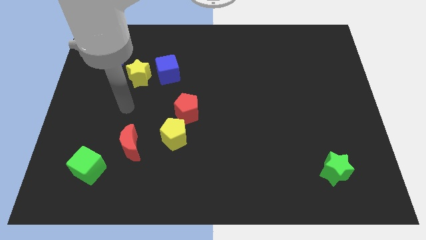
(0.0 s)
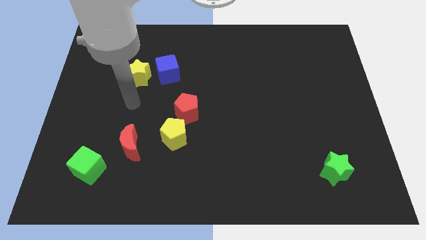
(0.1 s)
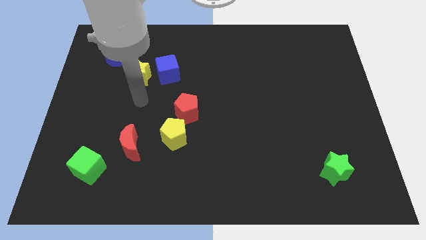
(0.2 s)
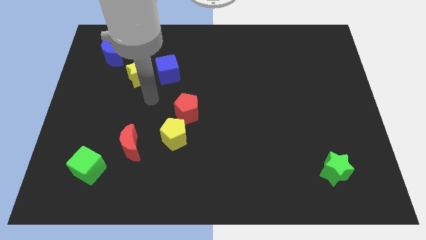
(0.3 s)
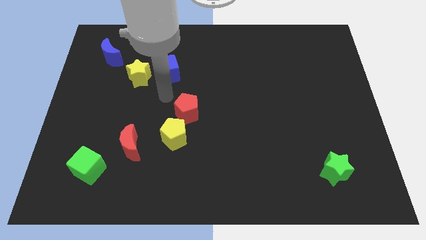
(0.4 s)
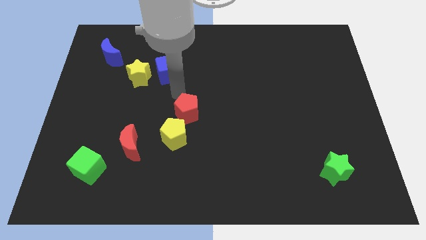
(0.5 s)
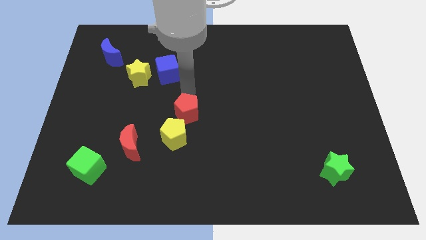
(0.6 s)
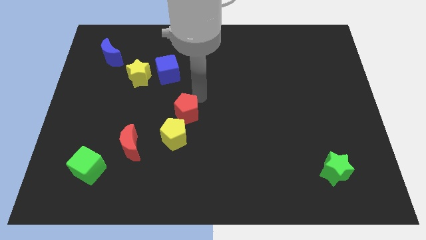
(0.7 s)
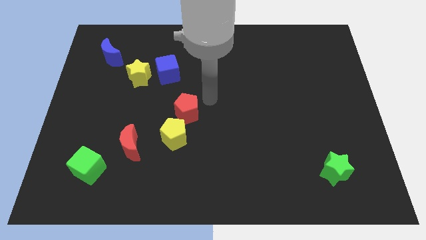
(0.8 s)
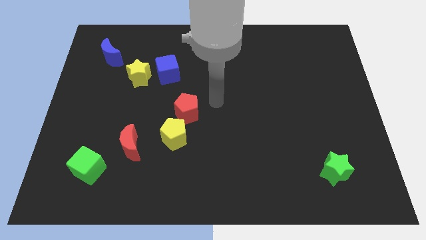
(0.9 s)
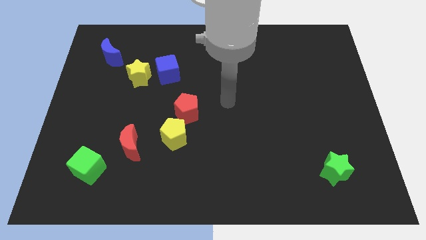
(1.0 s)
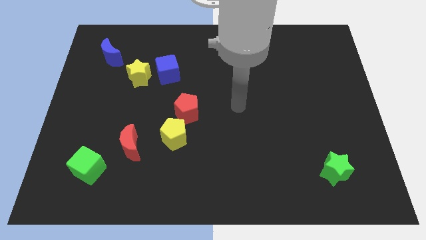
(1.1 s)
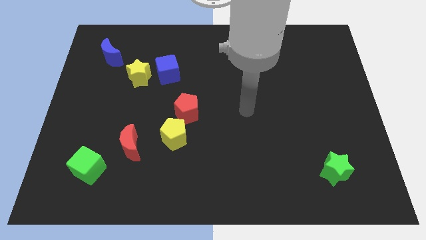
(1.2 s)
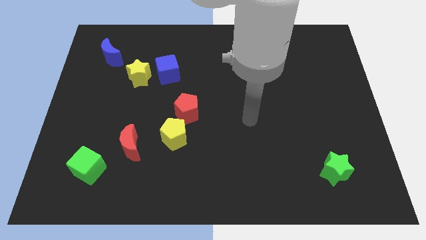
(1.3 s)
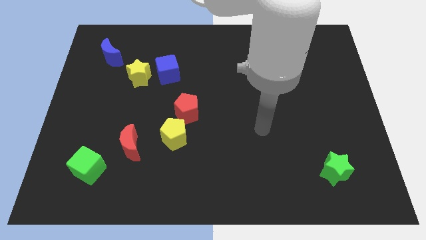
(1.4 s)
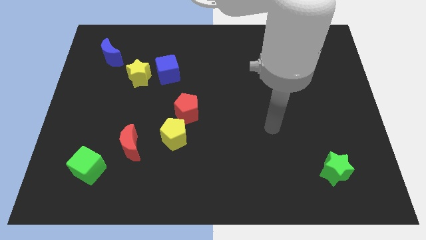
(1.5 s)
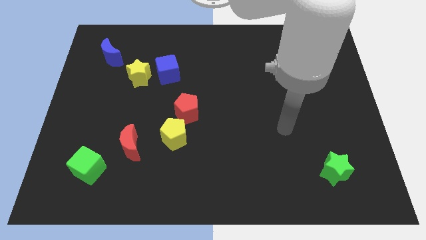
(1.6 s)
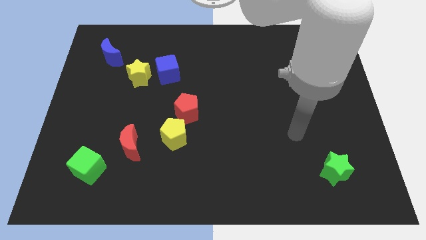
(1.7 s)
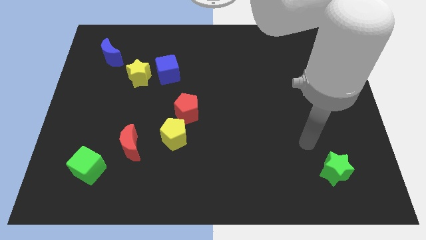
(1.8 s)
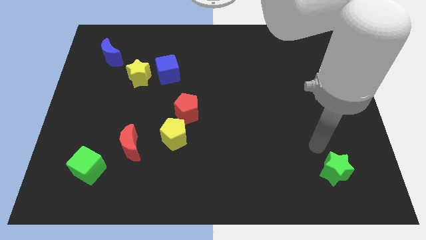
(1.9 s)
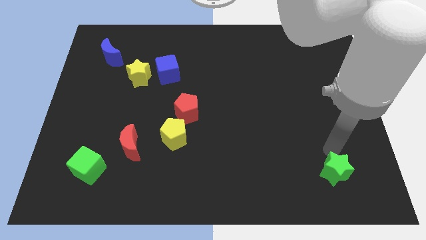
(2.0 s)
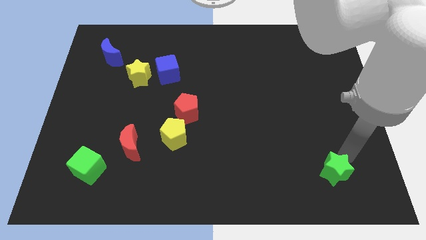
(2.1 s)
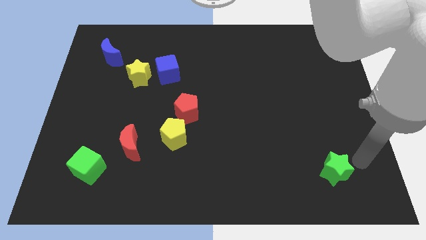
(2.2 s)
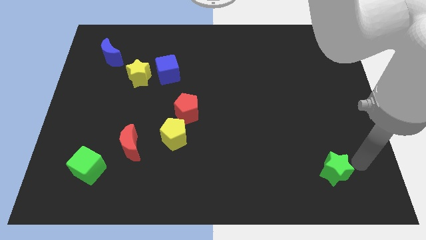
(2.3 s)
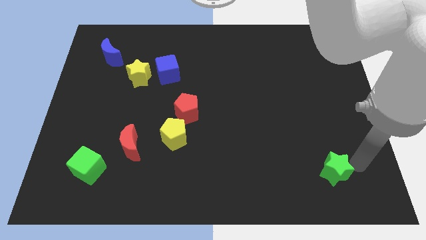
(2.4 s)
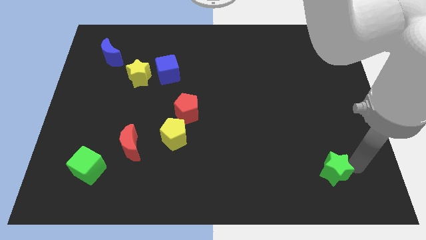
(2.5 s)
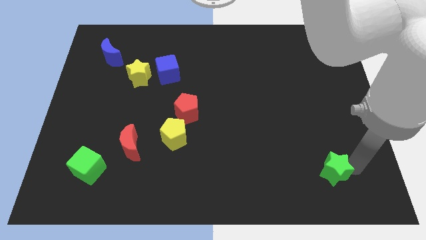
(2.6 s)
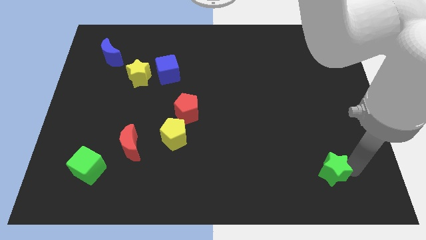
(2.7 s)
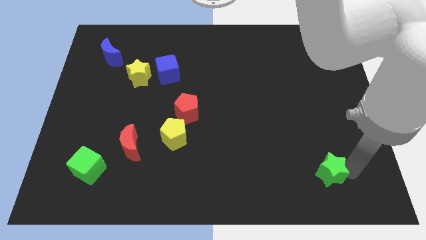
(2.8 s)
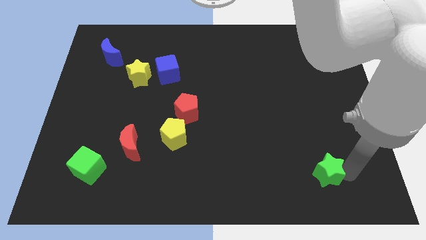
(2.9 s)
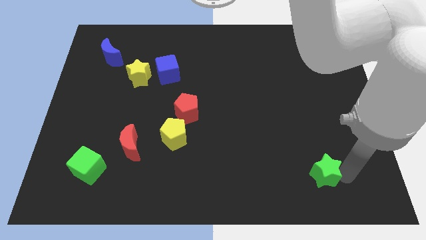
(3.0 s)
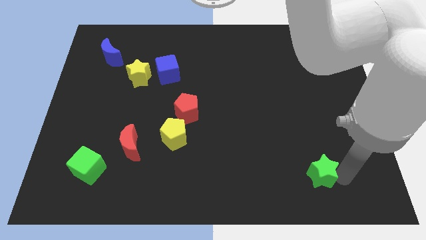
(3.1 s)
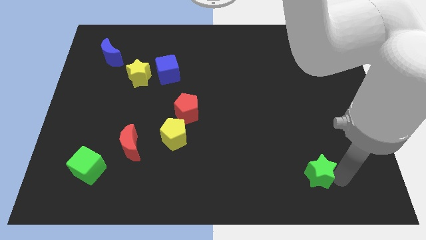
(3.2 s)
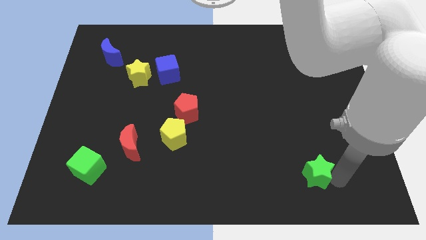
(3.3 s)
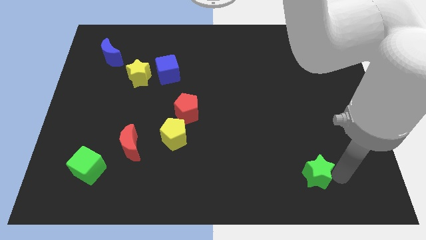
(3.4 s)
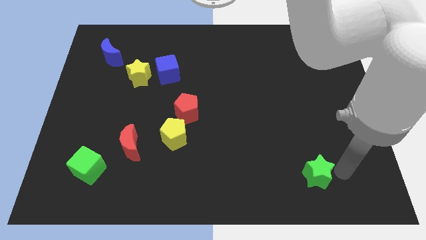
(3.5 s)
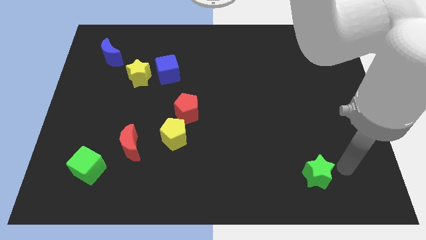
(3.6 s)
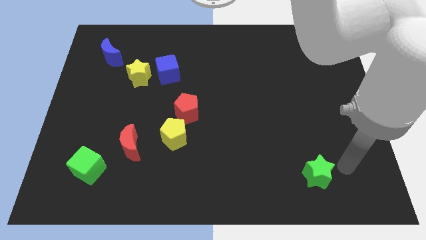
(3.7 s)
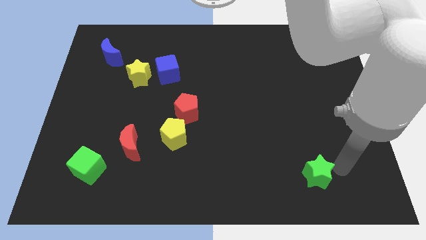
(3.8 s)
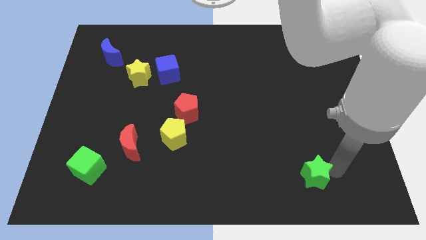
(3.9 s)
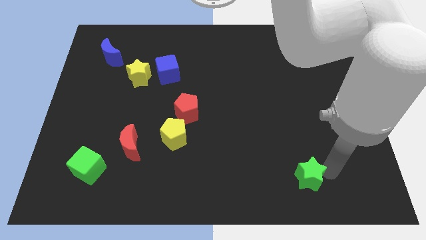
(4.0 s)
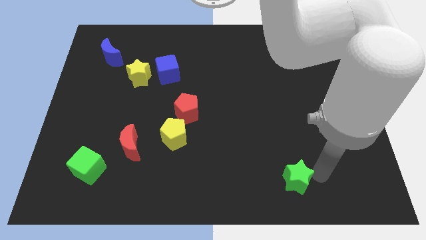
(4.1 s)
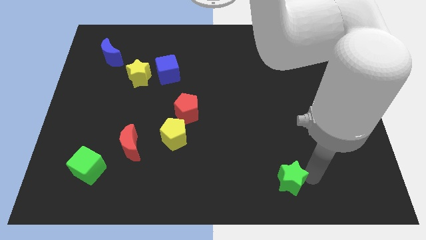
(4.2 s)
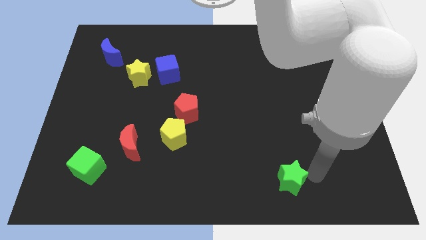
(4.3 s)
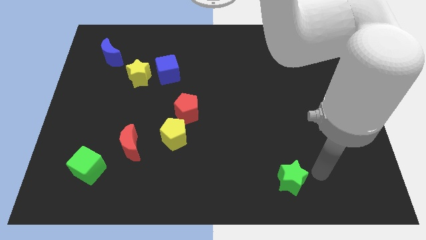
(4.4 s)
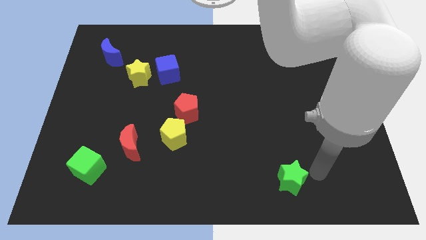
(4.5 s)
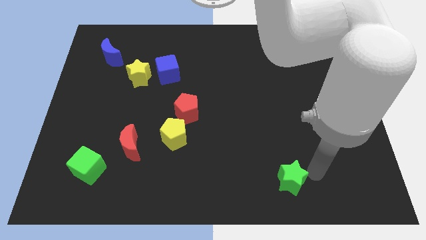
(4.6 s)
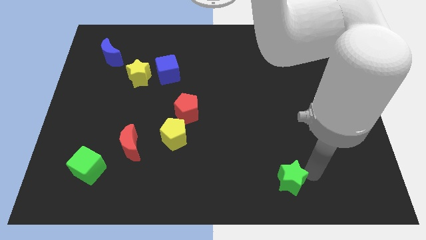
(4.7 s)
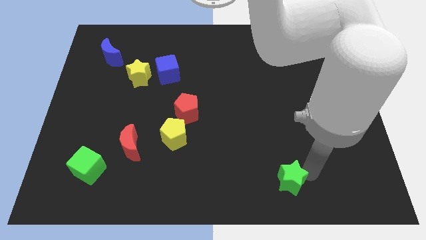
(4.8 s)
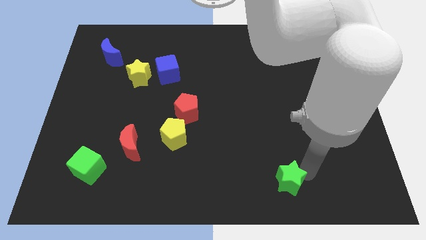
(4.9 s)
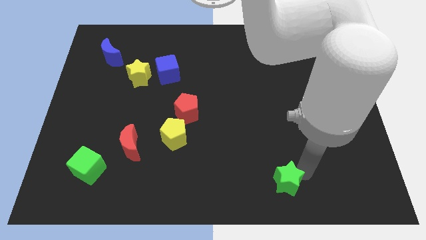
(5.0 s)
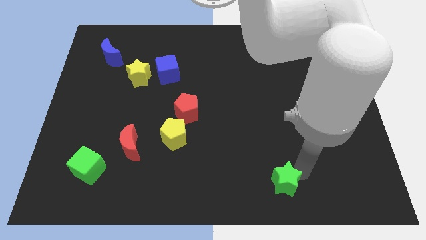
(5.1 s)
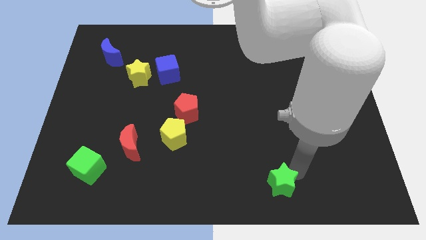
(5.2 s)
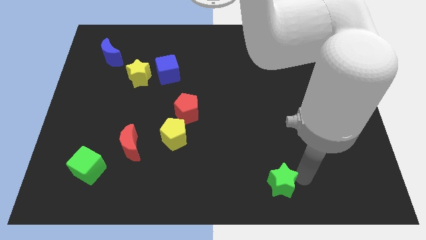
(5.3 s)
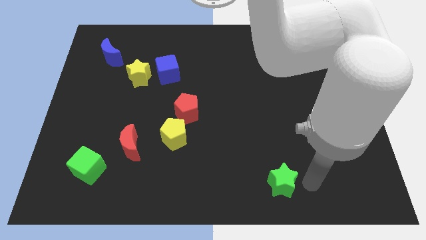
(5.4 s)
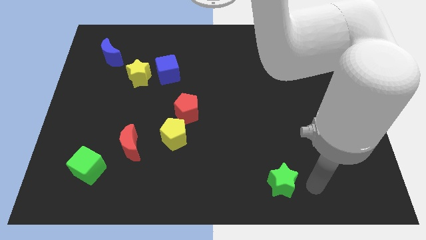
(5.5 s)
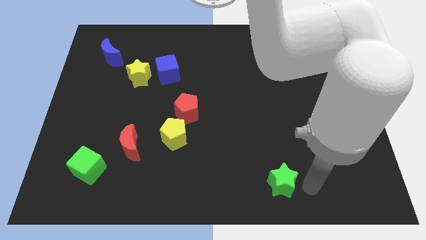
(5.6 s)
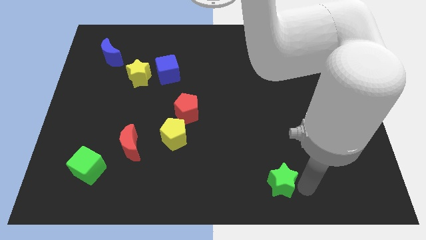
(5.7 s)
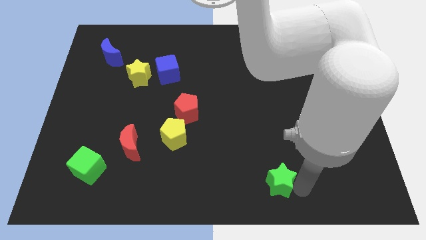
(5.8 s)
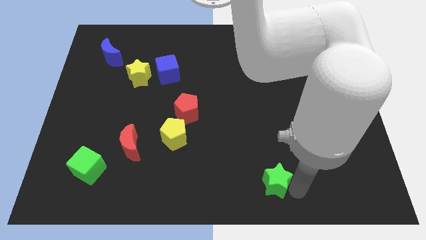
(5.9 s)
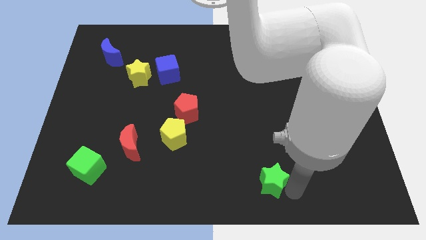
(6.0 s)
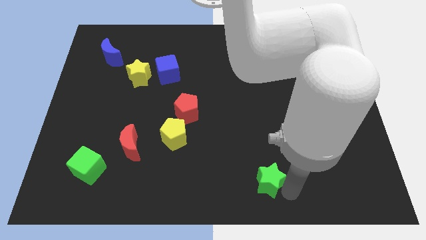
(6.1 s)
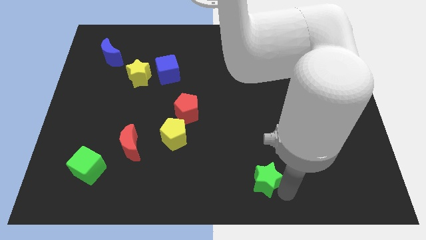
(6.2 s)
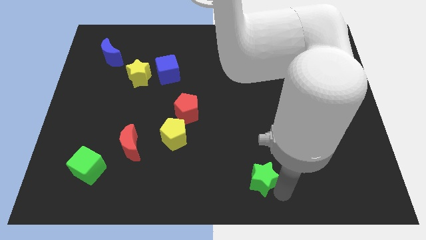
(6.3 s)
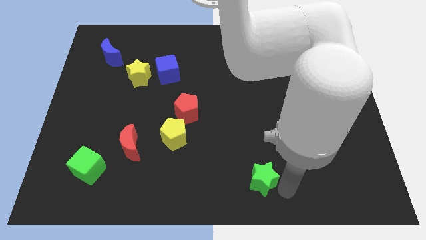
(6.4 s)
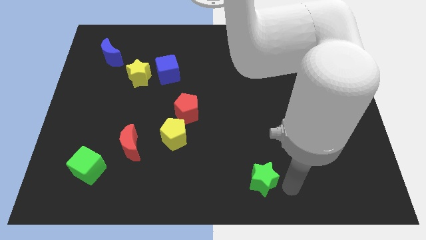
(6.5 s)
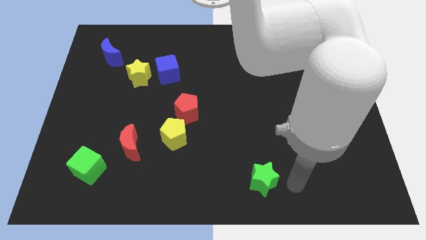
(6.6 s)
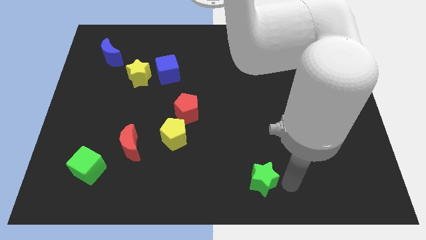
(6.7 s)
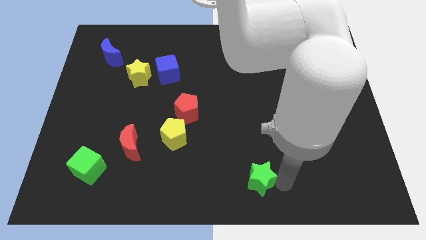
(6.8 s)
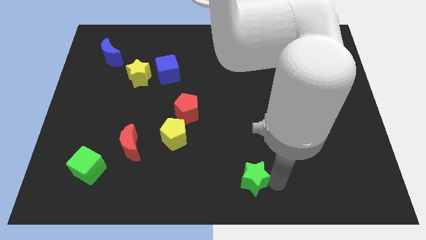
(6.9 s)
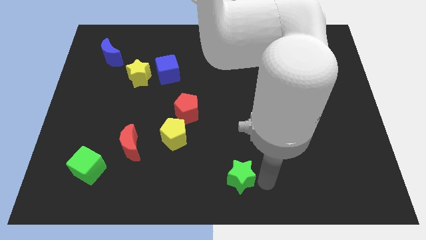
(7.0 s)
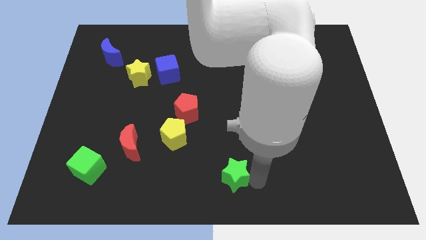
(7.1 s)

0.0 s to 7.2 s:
push the green star to the left

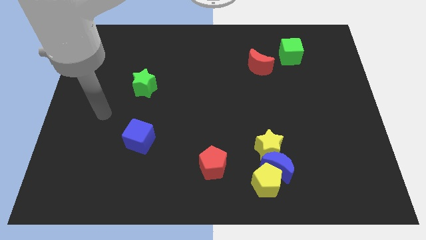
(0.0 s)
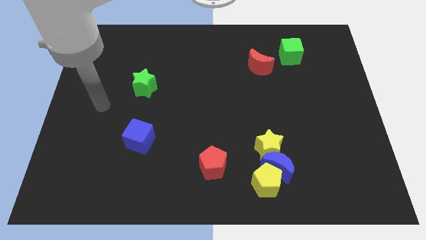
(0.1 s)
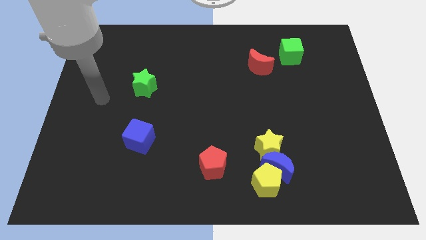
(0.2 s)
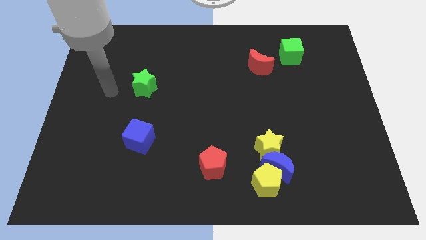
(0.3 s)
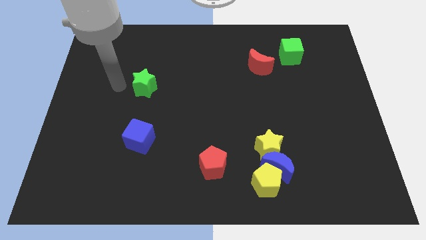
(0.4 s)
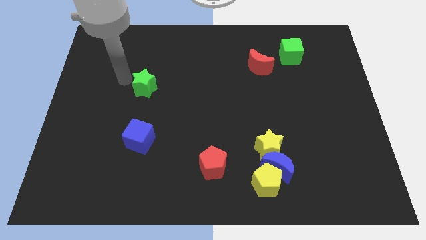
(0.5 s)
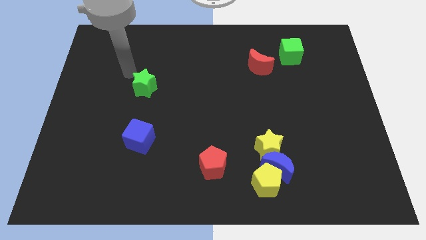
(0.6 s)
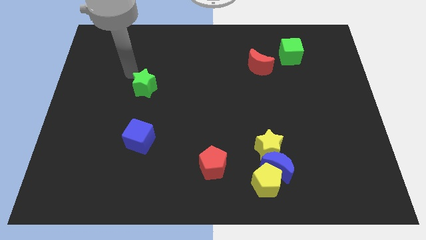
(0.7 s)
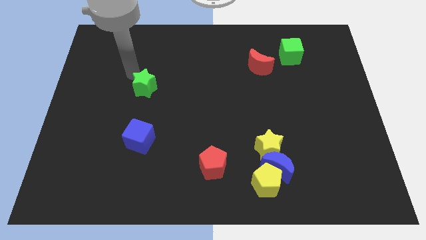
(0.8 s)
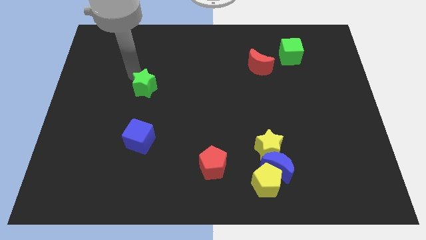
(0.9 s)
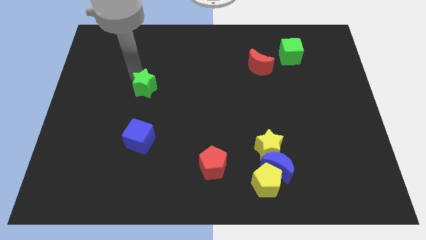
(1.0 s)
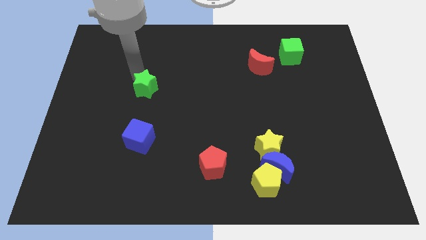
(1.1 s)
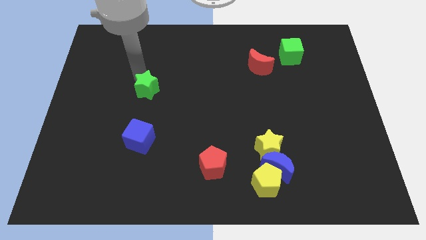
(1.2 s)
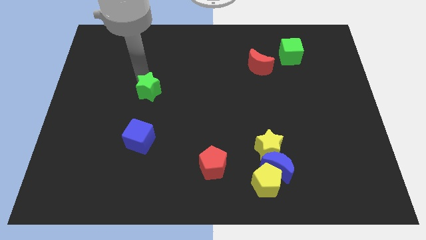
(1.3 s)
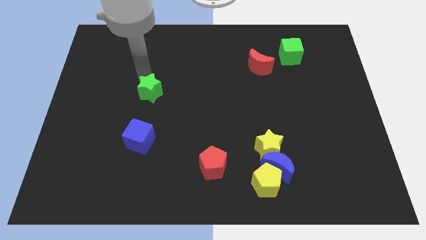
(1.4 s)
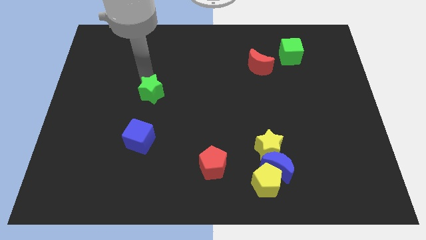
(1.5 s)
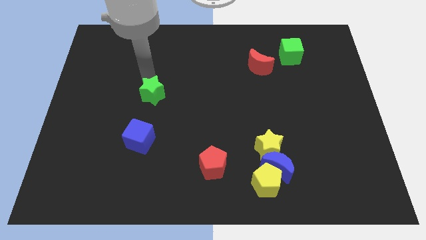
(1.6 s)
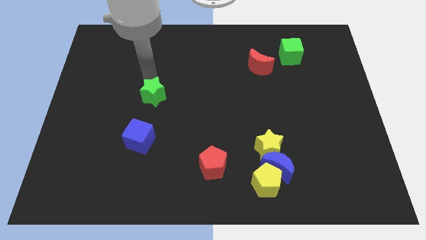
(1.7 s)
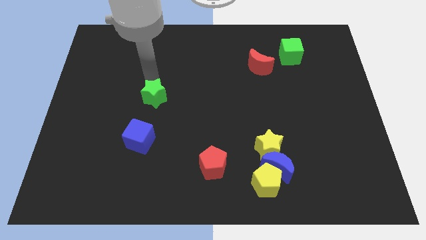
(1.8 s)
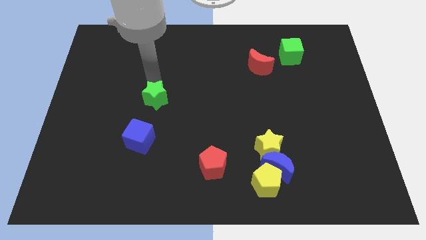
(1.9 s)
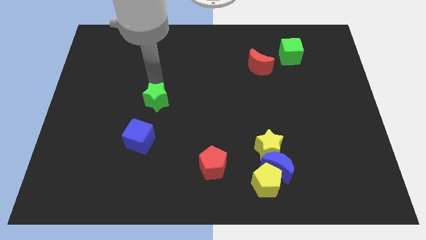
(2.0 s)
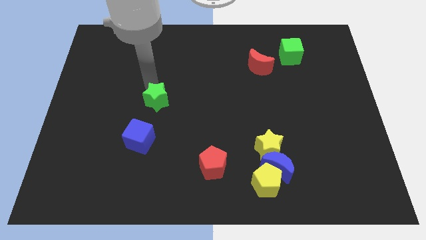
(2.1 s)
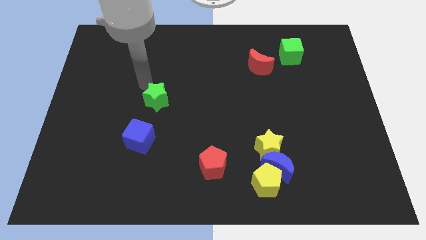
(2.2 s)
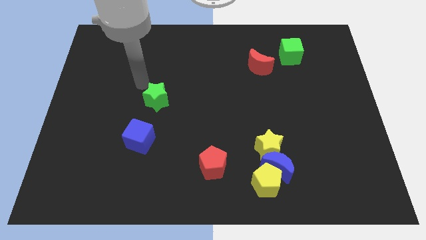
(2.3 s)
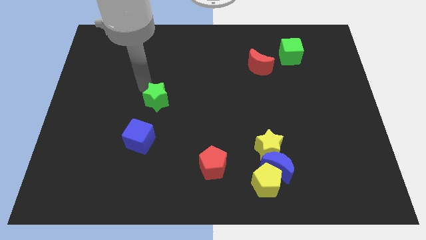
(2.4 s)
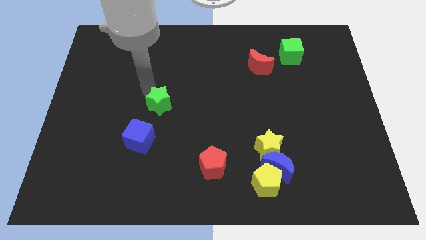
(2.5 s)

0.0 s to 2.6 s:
slightly slide the green star downwards and right diagonally
